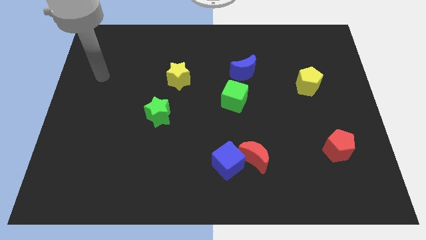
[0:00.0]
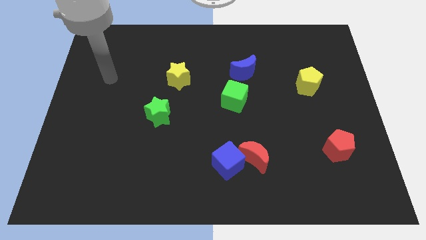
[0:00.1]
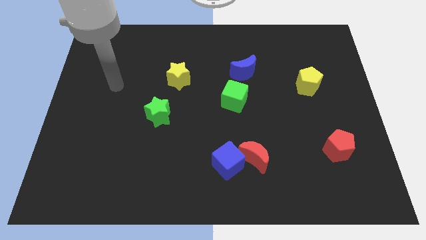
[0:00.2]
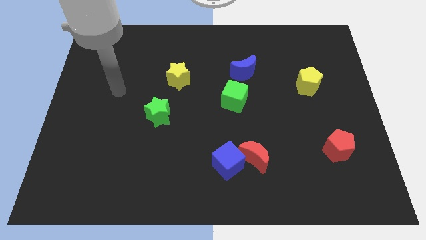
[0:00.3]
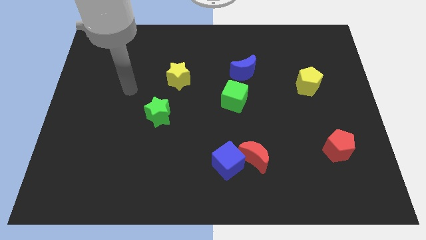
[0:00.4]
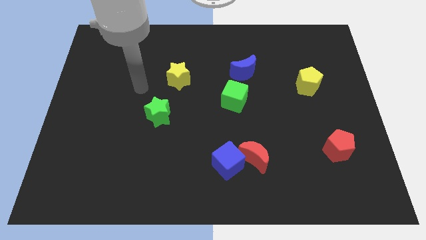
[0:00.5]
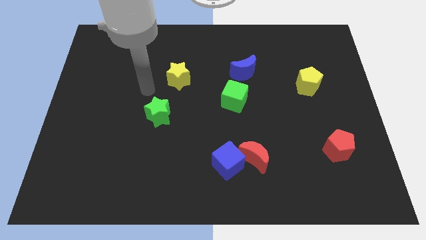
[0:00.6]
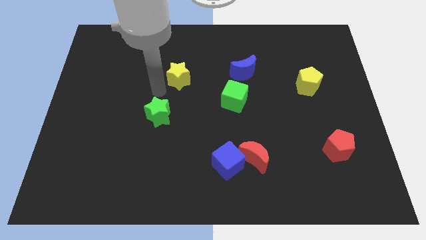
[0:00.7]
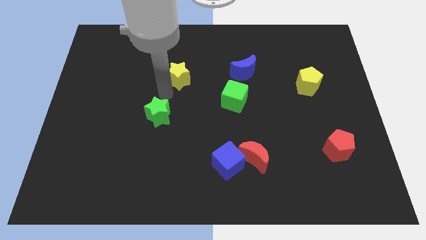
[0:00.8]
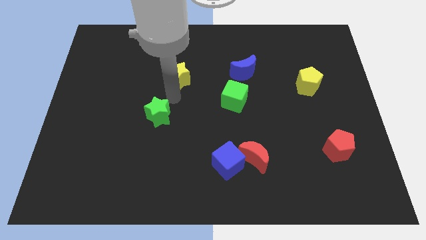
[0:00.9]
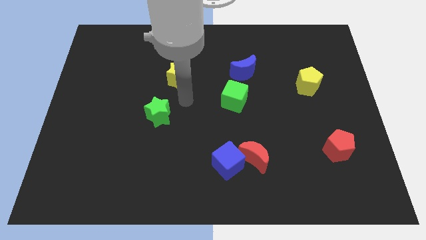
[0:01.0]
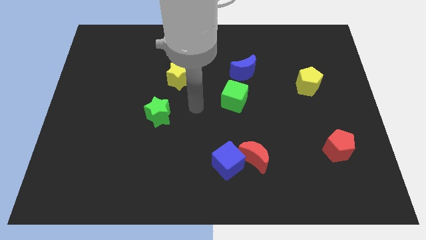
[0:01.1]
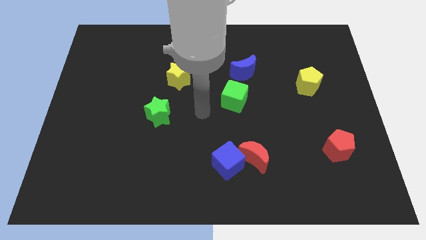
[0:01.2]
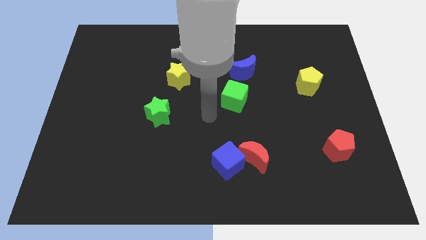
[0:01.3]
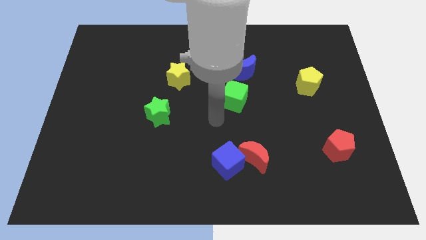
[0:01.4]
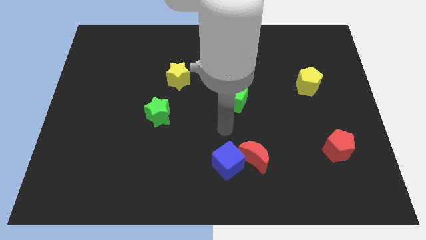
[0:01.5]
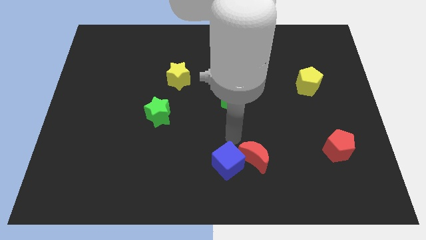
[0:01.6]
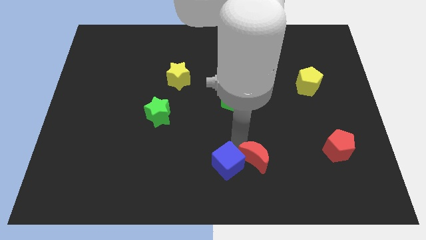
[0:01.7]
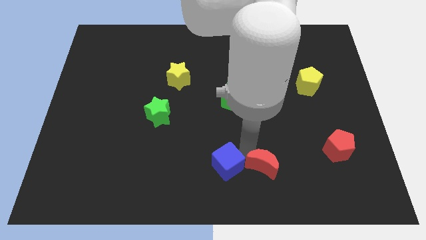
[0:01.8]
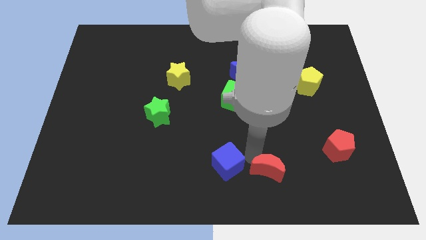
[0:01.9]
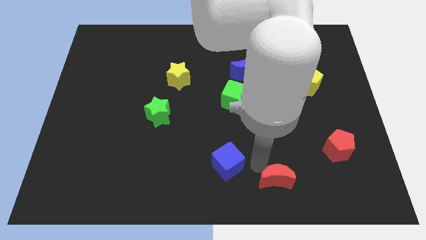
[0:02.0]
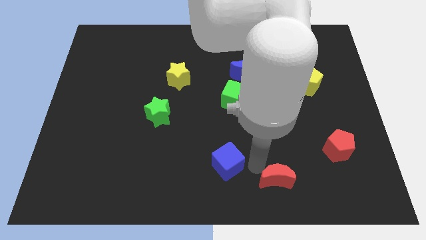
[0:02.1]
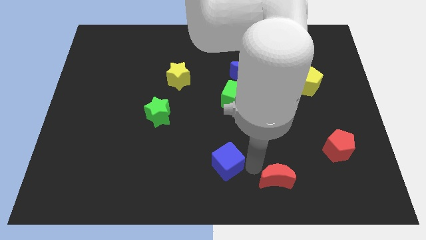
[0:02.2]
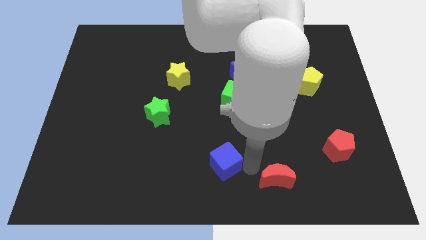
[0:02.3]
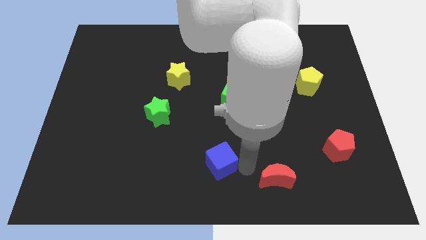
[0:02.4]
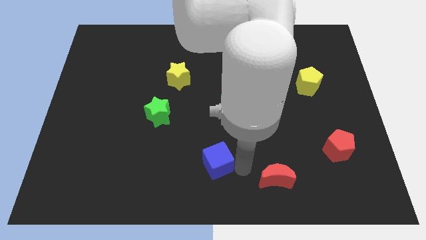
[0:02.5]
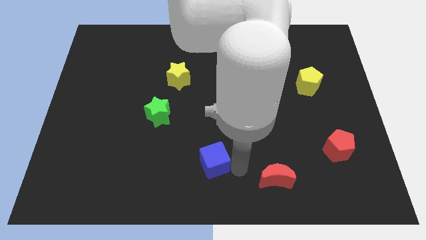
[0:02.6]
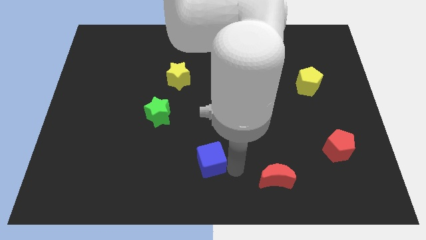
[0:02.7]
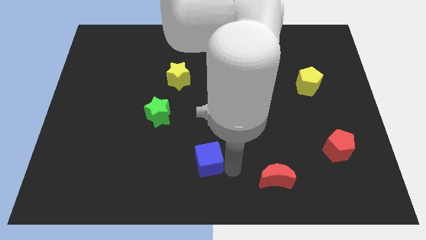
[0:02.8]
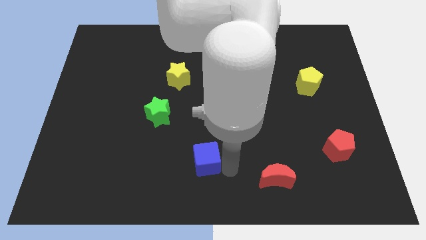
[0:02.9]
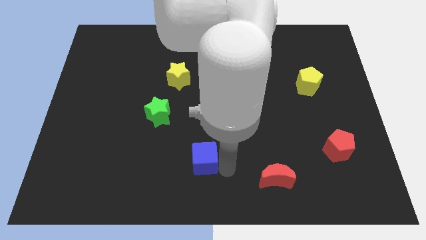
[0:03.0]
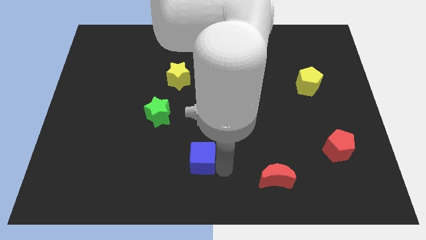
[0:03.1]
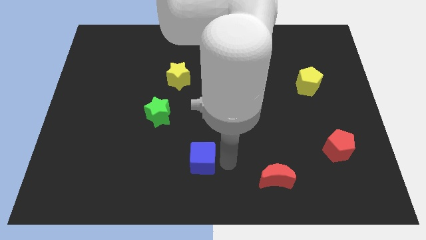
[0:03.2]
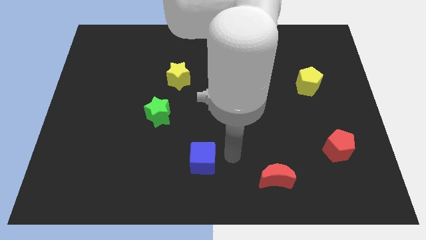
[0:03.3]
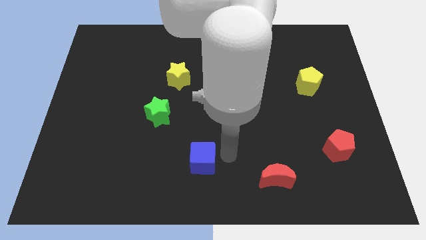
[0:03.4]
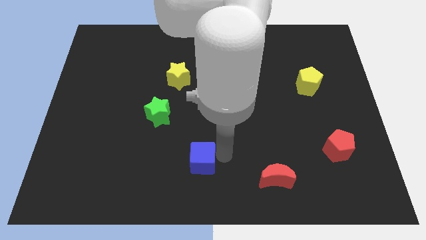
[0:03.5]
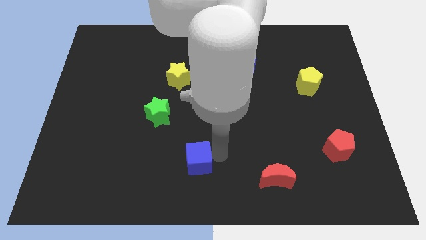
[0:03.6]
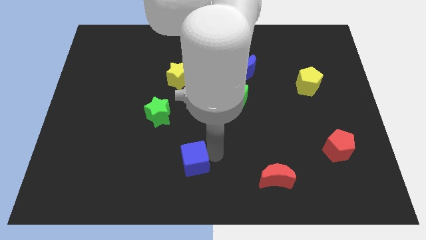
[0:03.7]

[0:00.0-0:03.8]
push the blue cube to the left a little bit

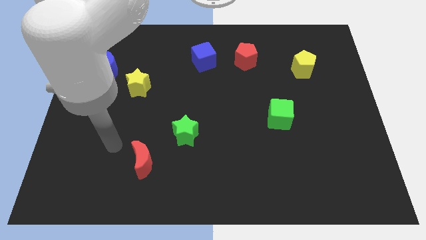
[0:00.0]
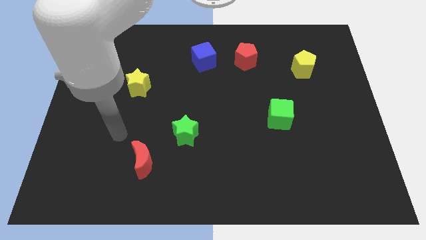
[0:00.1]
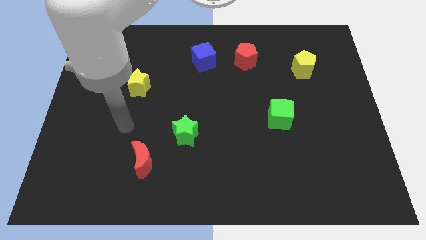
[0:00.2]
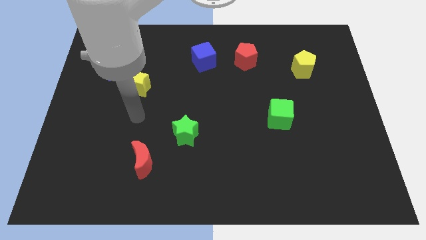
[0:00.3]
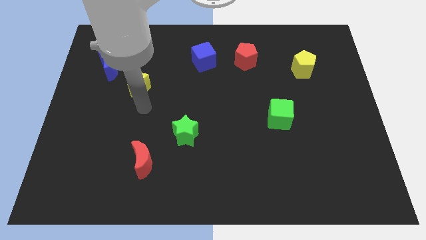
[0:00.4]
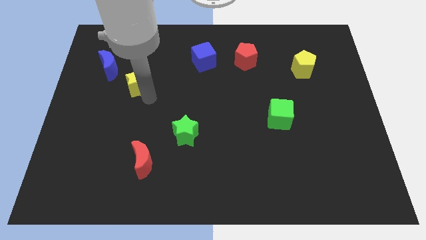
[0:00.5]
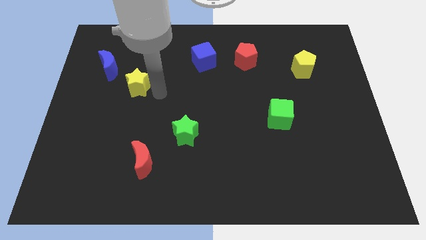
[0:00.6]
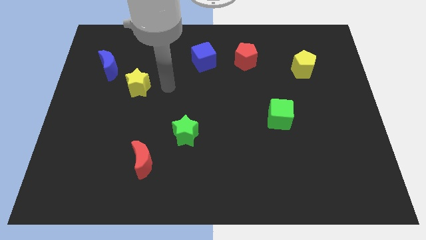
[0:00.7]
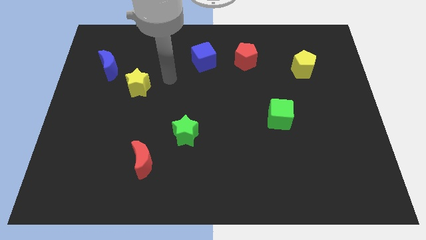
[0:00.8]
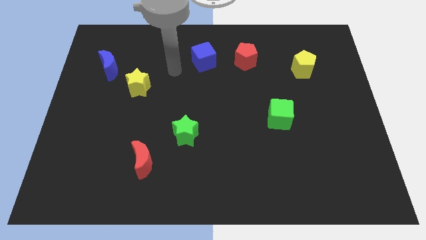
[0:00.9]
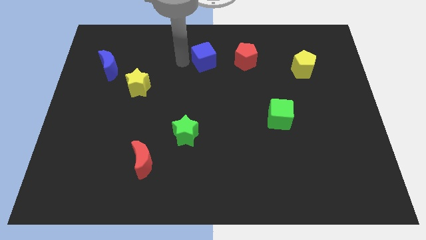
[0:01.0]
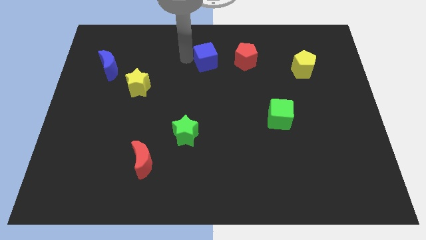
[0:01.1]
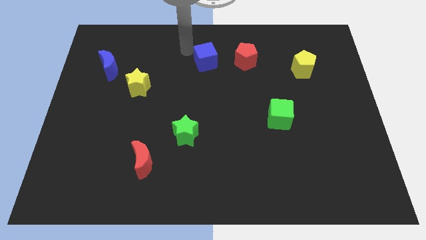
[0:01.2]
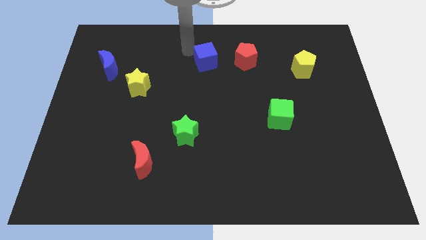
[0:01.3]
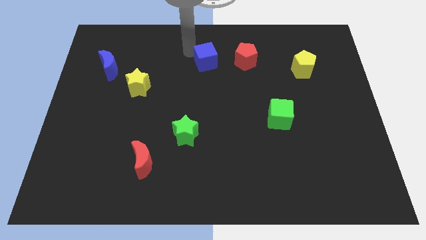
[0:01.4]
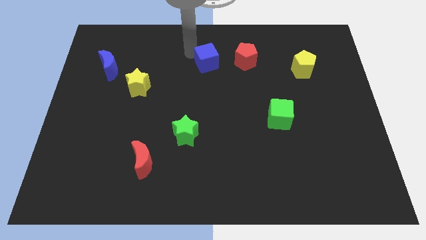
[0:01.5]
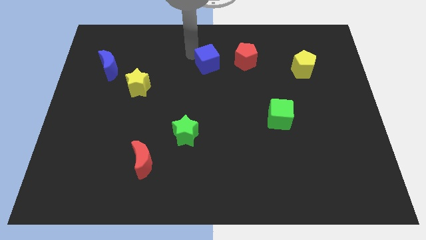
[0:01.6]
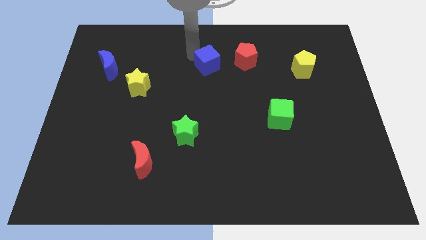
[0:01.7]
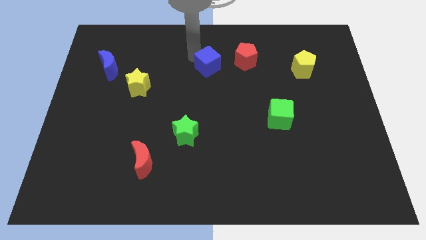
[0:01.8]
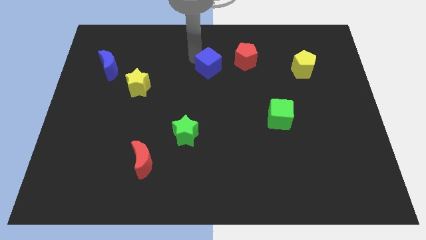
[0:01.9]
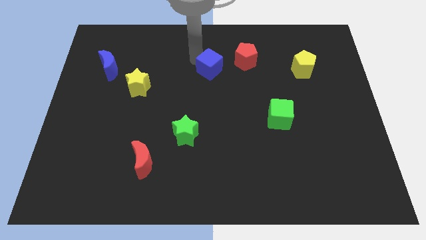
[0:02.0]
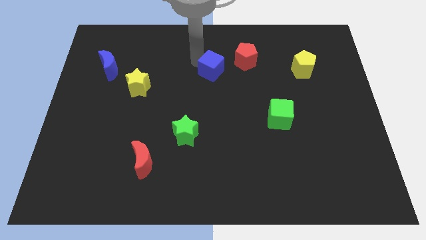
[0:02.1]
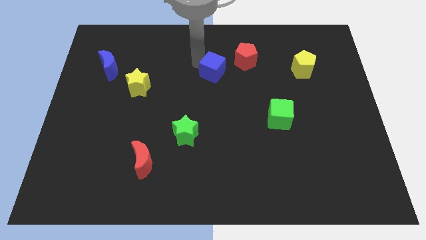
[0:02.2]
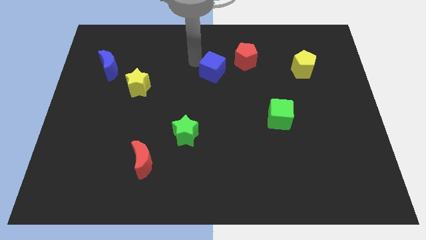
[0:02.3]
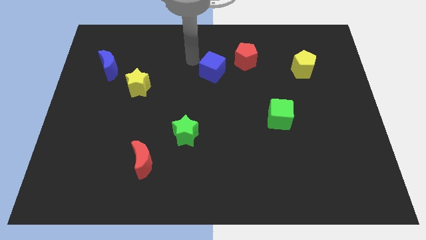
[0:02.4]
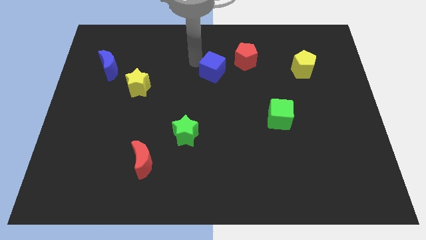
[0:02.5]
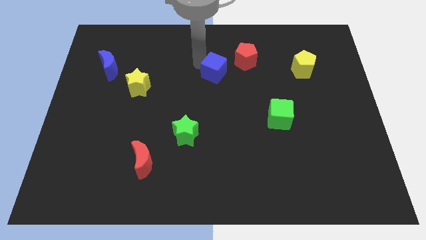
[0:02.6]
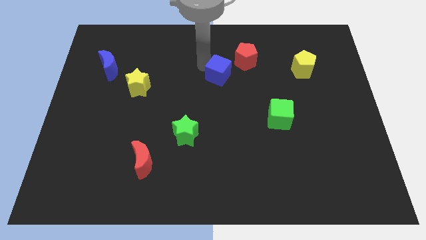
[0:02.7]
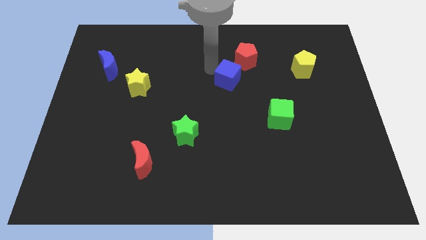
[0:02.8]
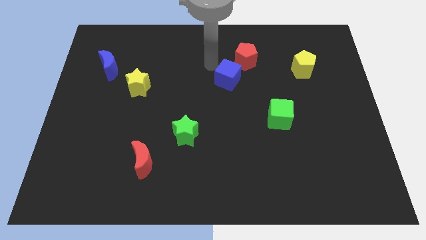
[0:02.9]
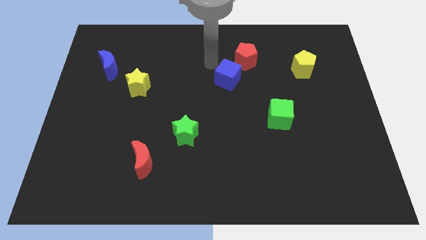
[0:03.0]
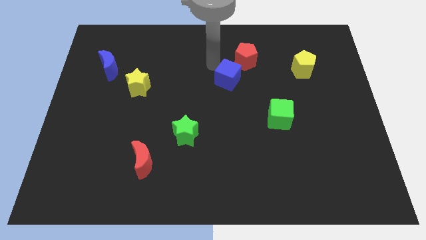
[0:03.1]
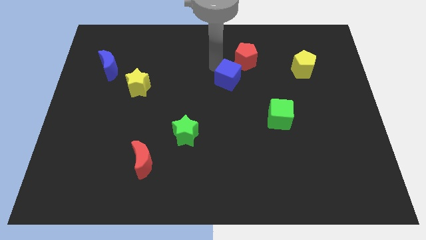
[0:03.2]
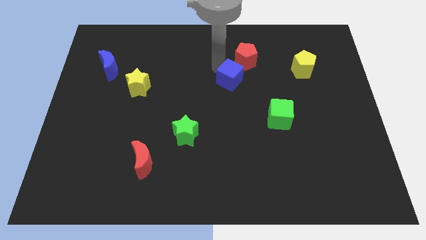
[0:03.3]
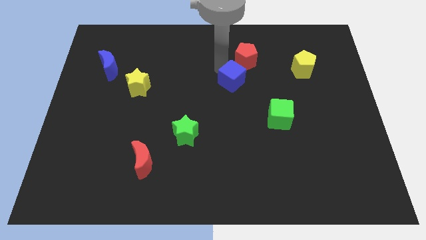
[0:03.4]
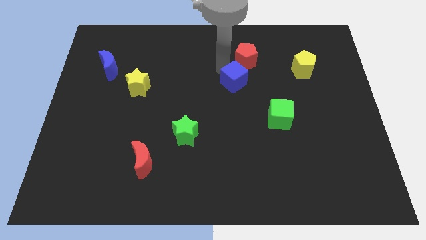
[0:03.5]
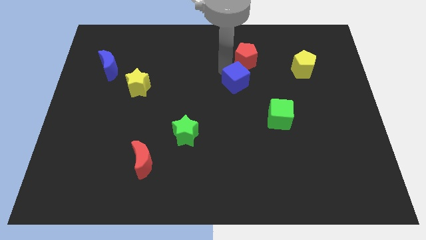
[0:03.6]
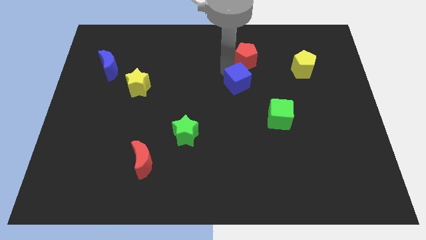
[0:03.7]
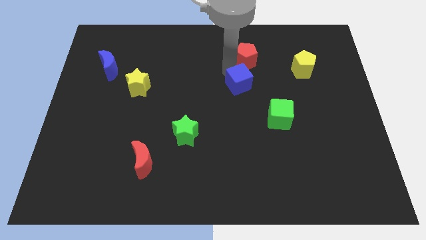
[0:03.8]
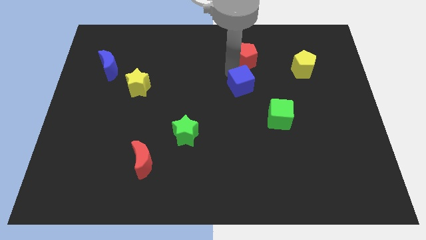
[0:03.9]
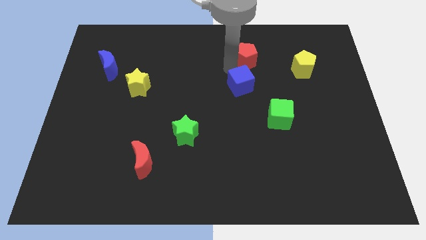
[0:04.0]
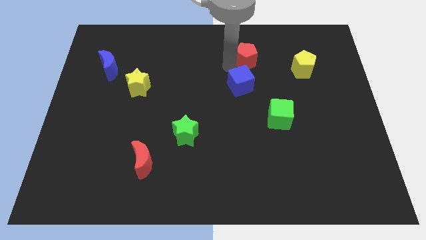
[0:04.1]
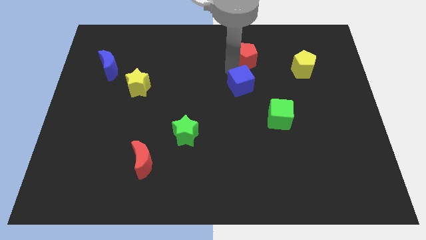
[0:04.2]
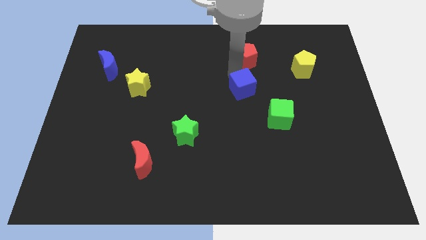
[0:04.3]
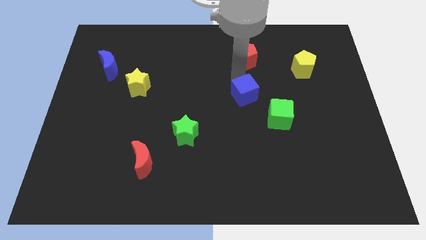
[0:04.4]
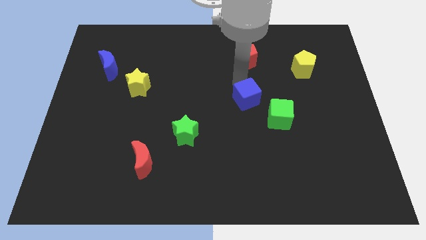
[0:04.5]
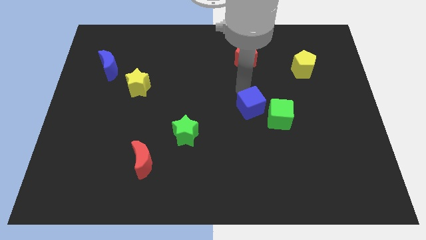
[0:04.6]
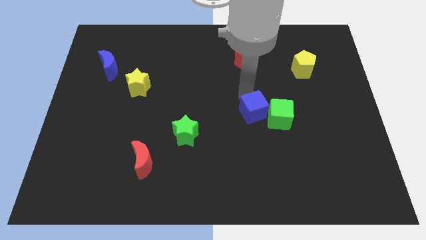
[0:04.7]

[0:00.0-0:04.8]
slide the blue cube downwards and to the right diagonally
